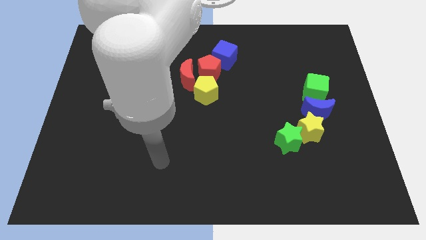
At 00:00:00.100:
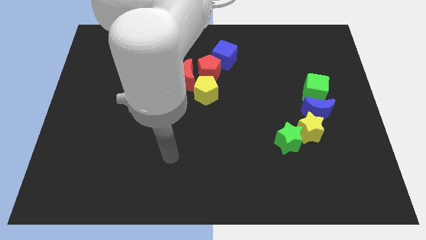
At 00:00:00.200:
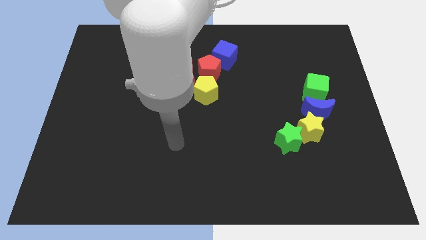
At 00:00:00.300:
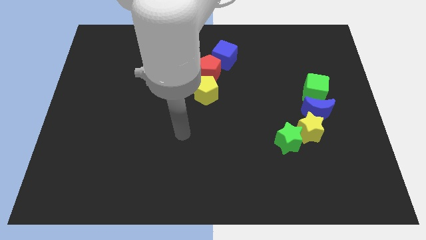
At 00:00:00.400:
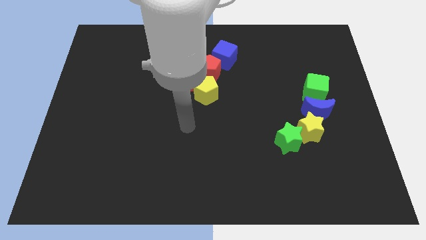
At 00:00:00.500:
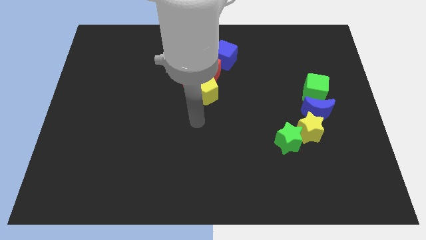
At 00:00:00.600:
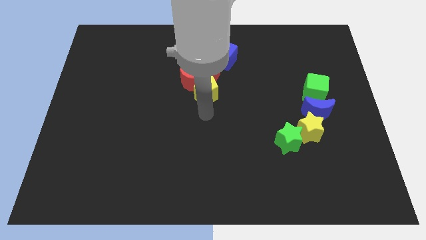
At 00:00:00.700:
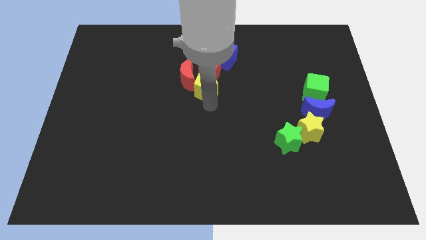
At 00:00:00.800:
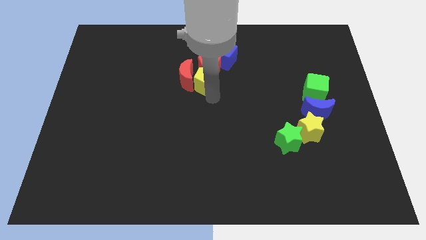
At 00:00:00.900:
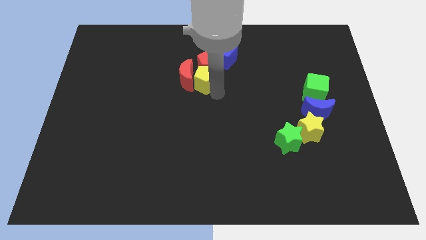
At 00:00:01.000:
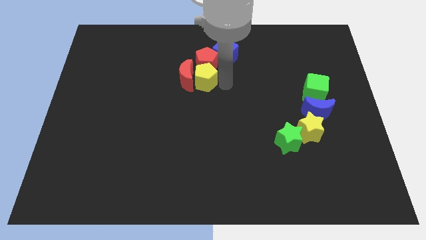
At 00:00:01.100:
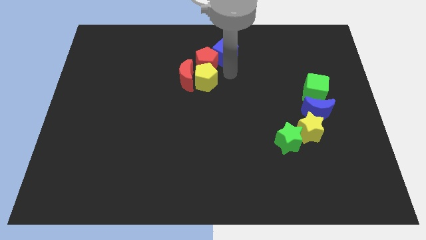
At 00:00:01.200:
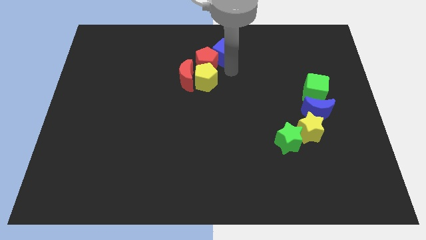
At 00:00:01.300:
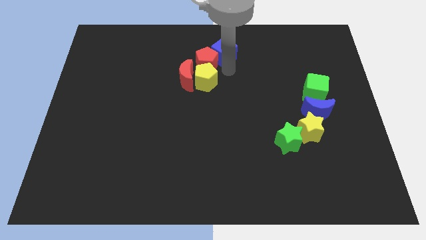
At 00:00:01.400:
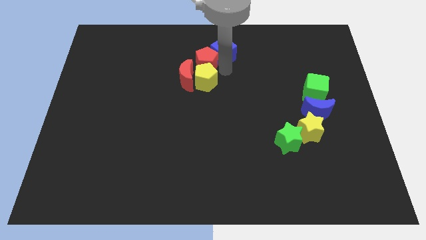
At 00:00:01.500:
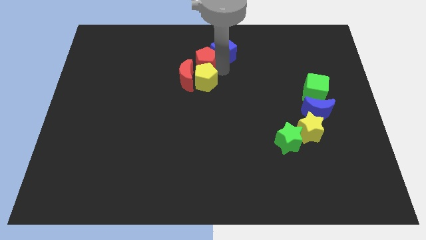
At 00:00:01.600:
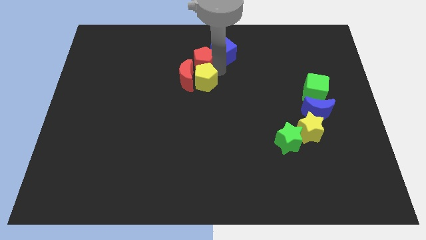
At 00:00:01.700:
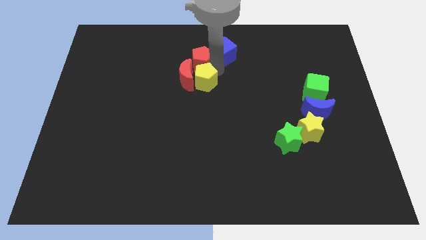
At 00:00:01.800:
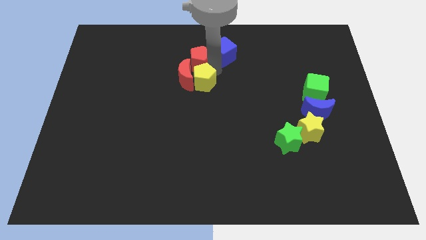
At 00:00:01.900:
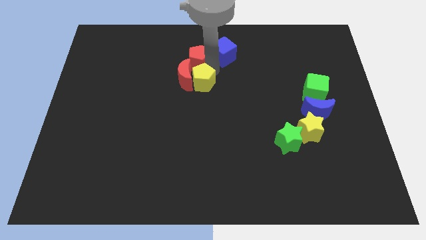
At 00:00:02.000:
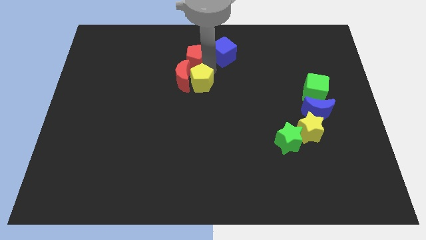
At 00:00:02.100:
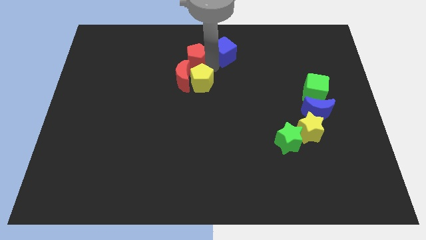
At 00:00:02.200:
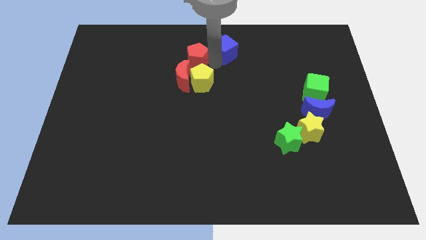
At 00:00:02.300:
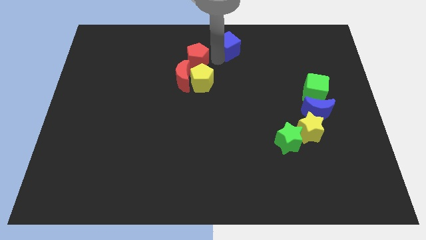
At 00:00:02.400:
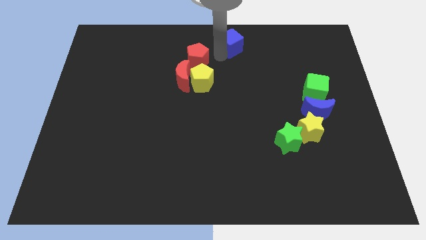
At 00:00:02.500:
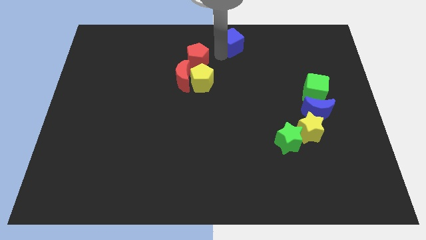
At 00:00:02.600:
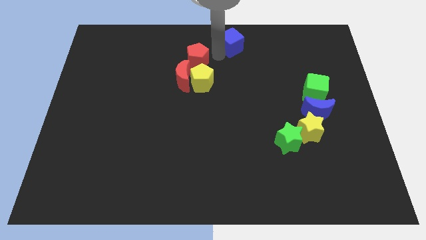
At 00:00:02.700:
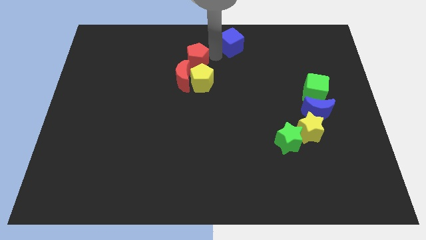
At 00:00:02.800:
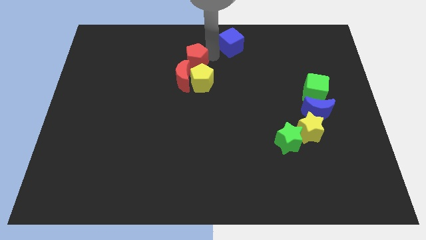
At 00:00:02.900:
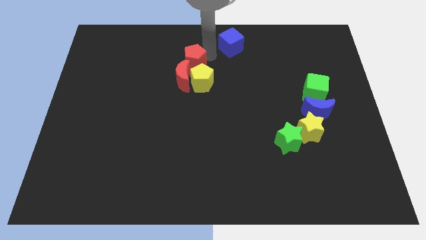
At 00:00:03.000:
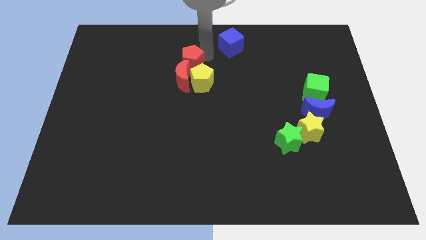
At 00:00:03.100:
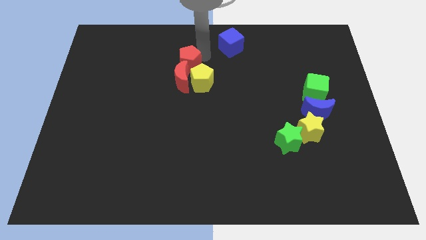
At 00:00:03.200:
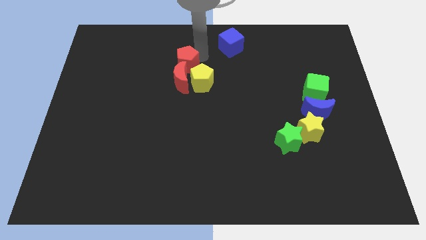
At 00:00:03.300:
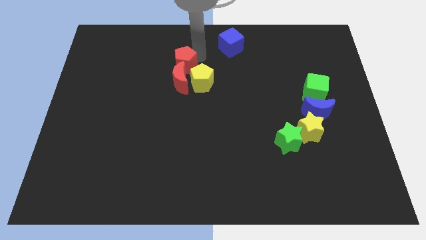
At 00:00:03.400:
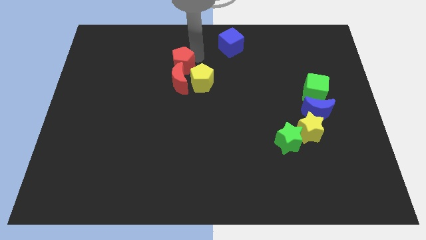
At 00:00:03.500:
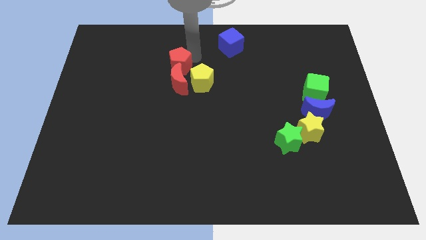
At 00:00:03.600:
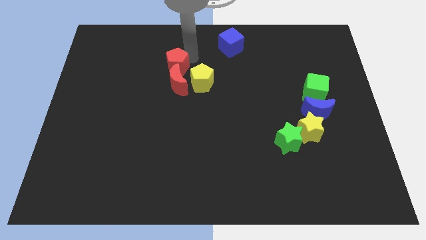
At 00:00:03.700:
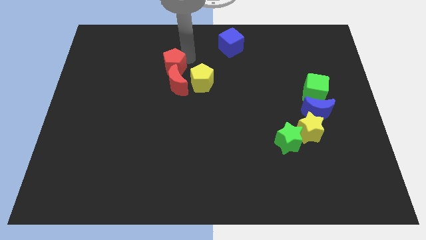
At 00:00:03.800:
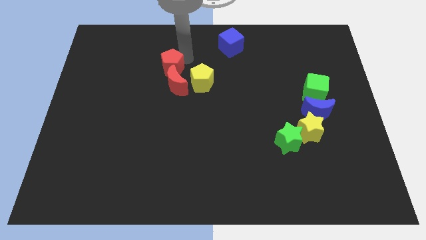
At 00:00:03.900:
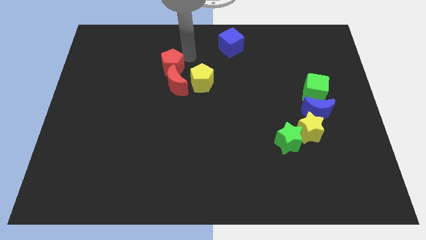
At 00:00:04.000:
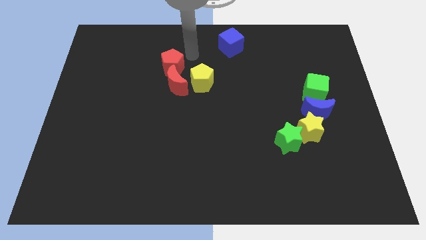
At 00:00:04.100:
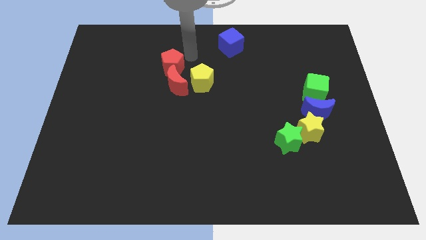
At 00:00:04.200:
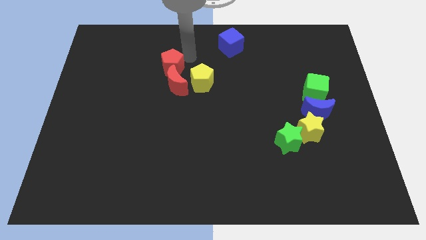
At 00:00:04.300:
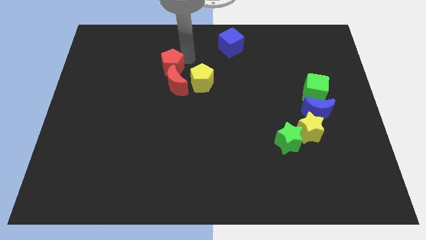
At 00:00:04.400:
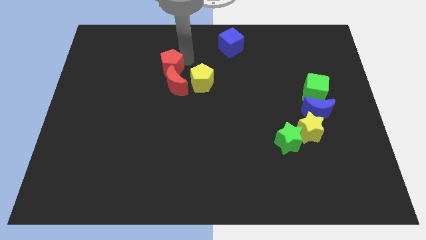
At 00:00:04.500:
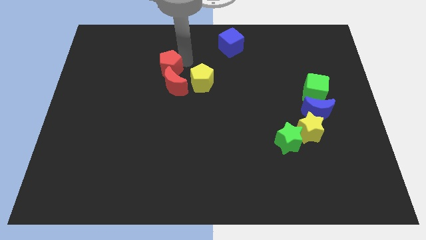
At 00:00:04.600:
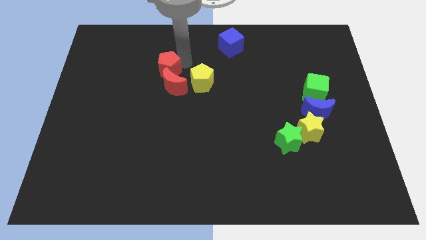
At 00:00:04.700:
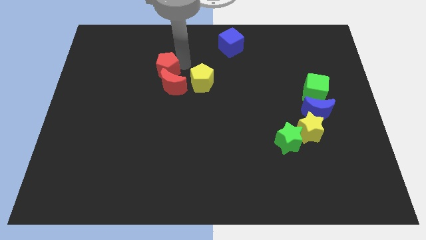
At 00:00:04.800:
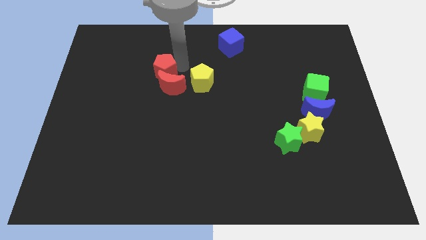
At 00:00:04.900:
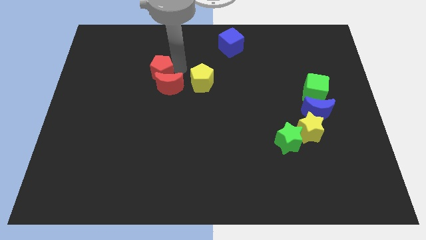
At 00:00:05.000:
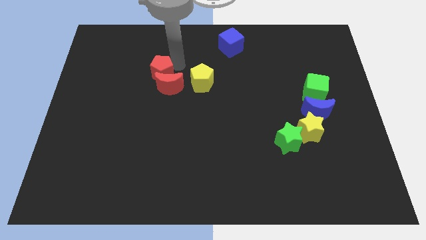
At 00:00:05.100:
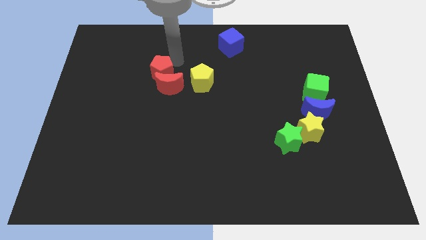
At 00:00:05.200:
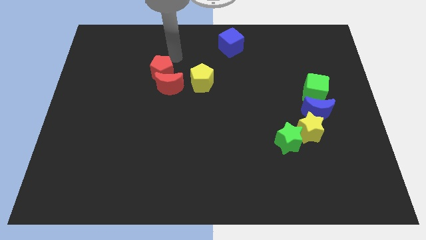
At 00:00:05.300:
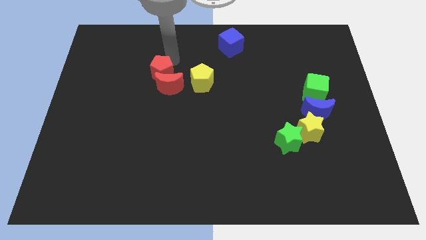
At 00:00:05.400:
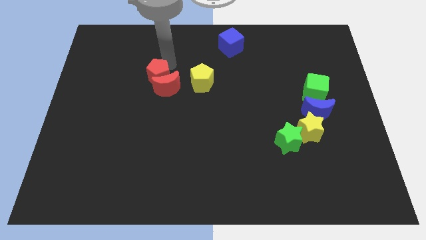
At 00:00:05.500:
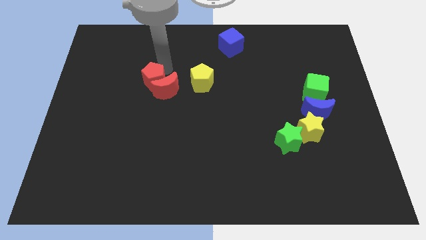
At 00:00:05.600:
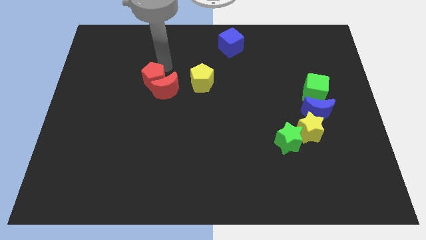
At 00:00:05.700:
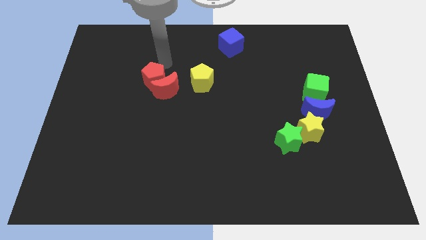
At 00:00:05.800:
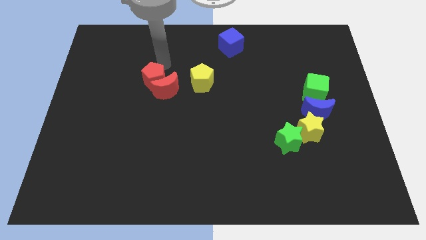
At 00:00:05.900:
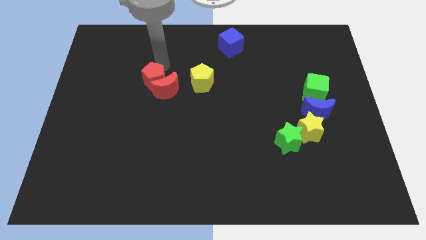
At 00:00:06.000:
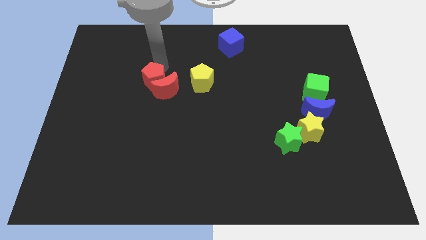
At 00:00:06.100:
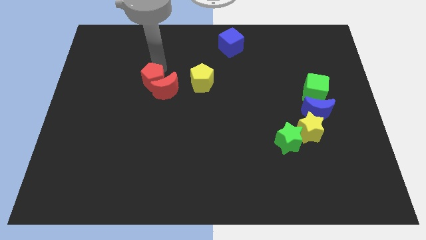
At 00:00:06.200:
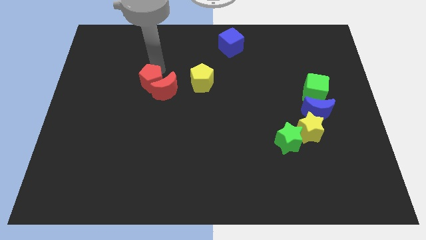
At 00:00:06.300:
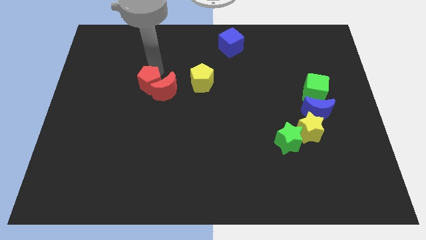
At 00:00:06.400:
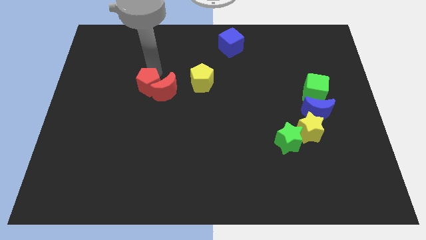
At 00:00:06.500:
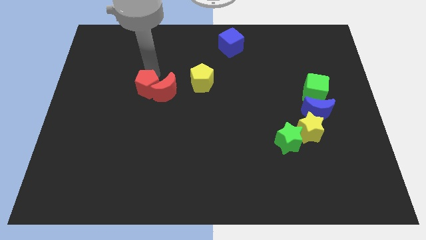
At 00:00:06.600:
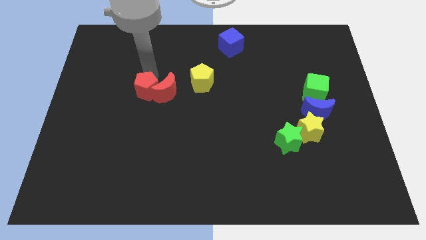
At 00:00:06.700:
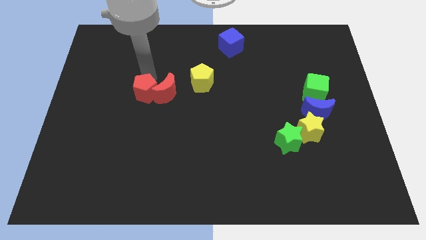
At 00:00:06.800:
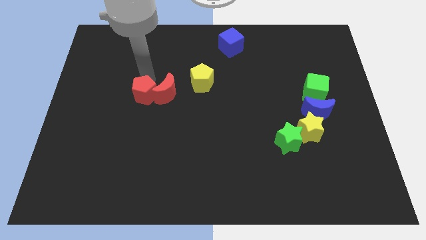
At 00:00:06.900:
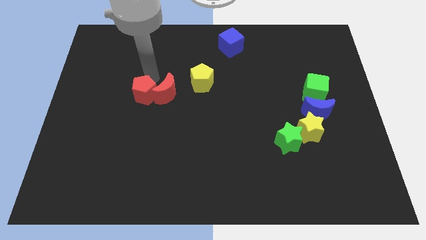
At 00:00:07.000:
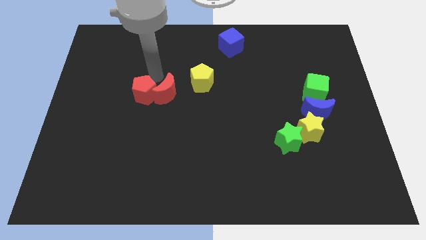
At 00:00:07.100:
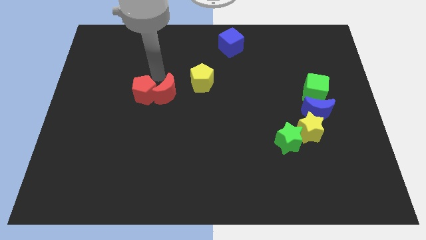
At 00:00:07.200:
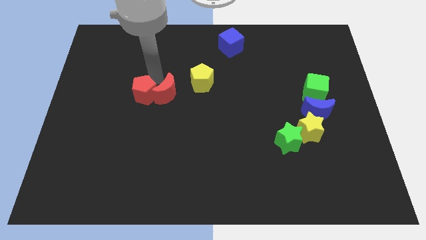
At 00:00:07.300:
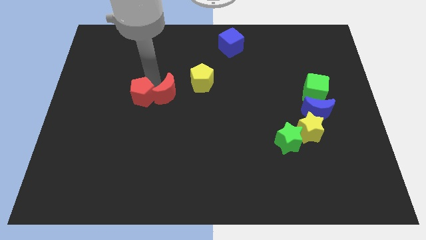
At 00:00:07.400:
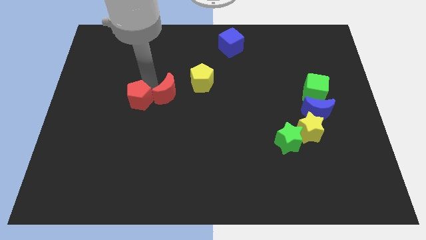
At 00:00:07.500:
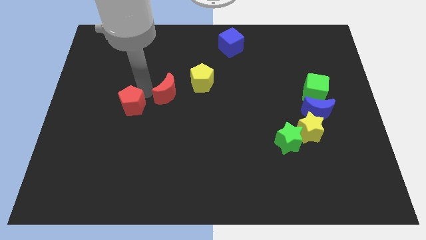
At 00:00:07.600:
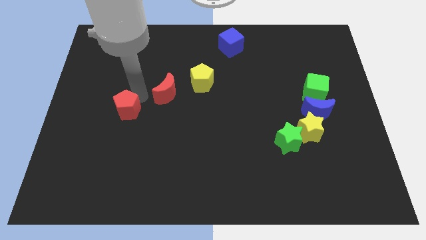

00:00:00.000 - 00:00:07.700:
slide the red pentagon downwards and then to the left

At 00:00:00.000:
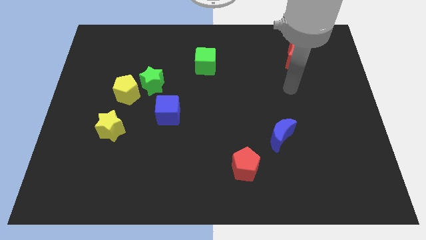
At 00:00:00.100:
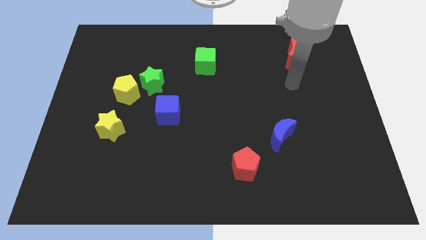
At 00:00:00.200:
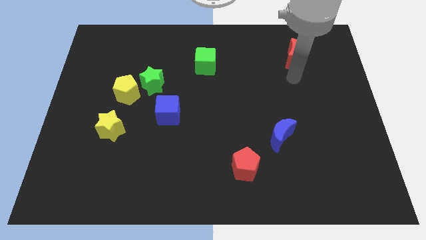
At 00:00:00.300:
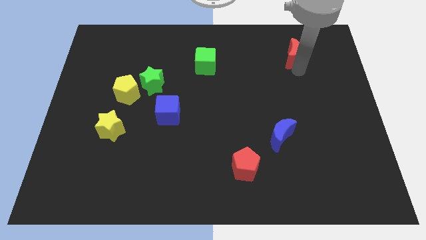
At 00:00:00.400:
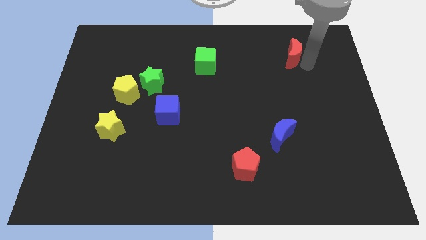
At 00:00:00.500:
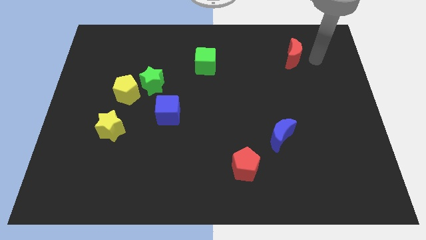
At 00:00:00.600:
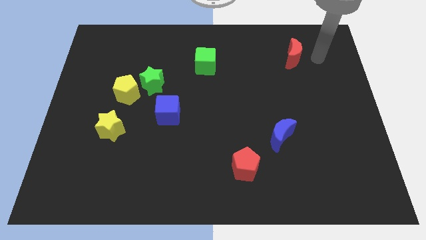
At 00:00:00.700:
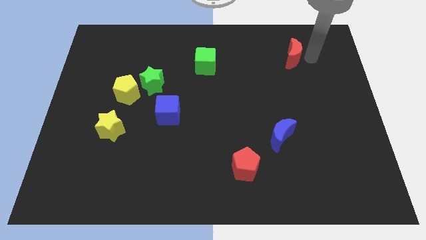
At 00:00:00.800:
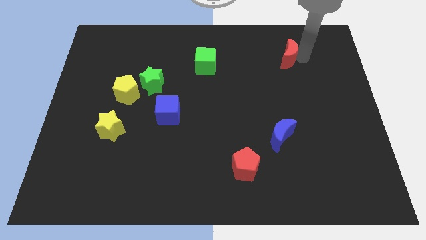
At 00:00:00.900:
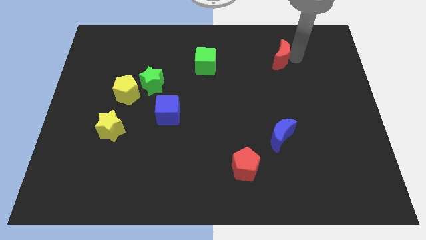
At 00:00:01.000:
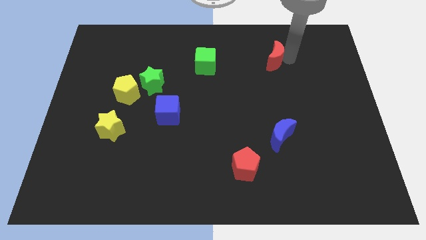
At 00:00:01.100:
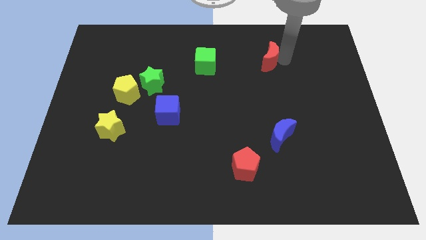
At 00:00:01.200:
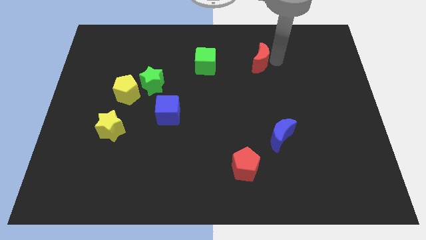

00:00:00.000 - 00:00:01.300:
slightly move the red moon left
